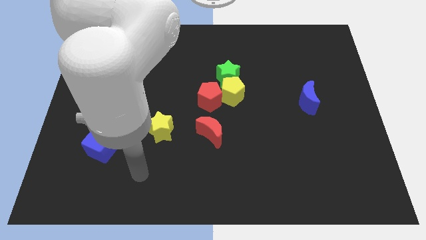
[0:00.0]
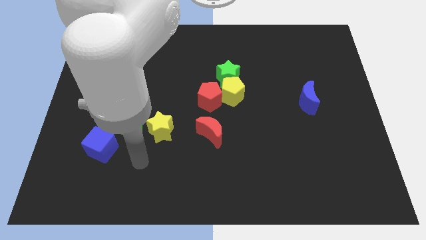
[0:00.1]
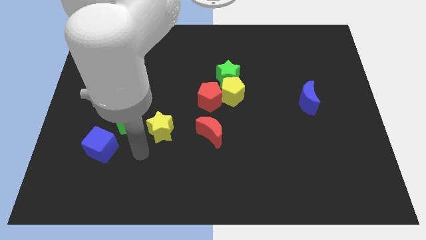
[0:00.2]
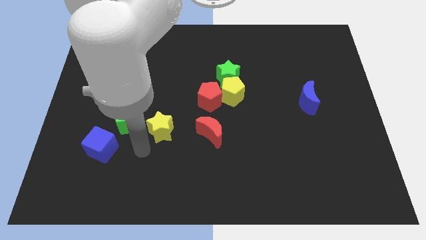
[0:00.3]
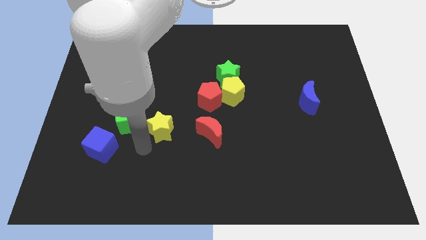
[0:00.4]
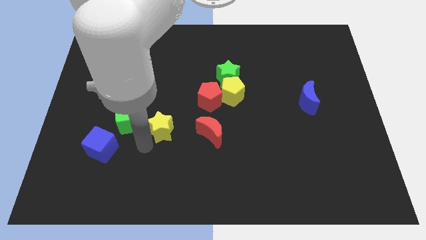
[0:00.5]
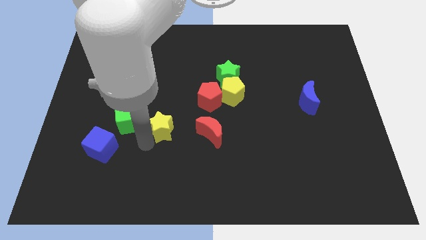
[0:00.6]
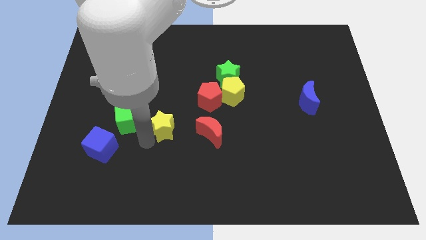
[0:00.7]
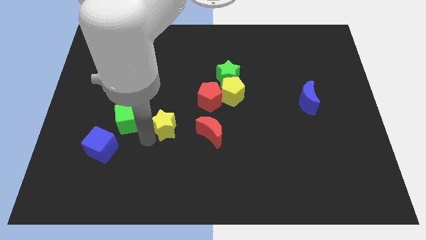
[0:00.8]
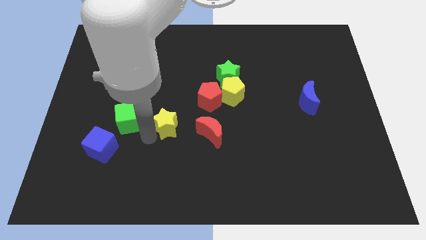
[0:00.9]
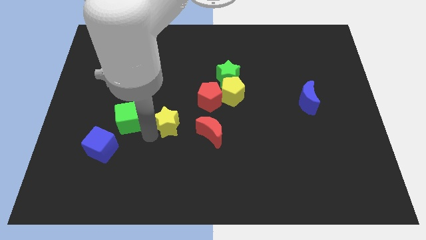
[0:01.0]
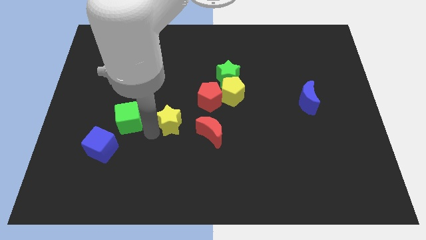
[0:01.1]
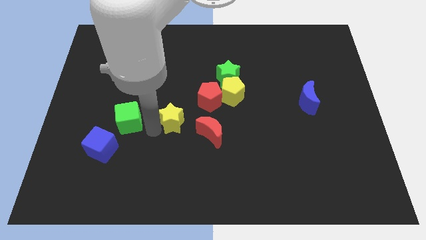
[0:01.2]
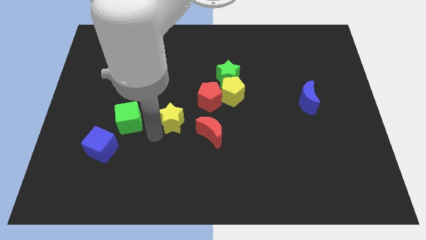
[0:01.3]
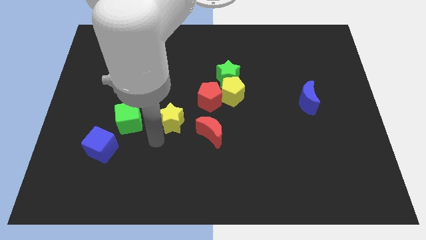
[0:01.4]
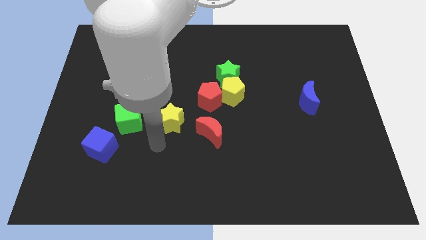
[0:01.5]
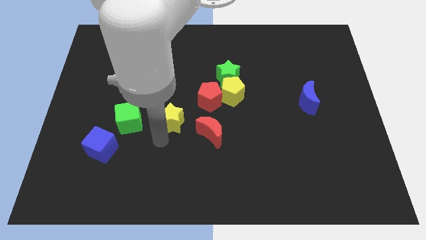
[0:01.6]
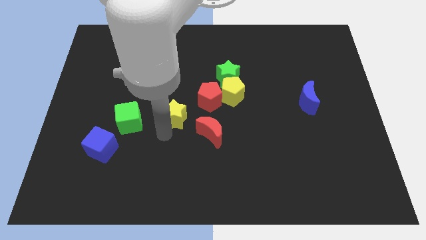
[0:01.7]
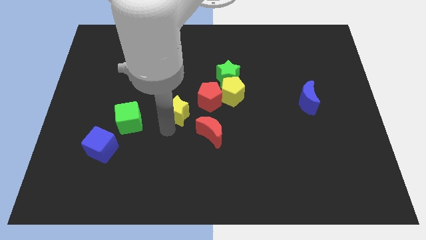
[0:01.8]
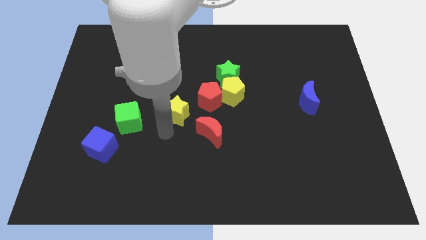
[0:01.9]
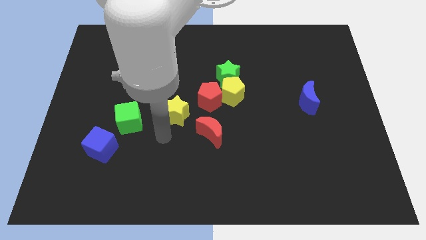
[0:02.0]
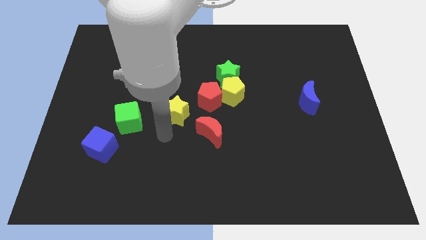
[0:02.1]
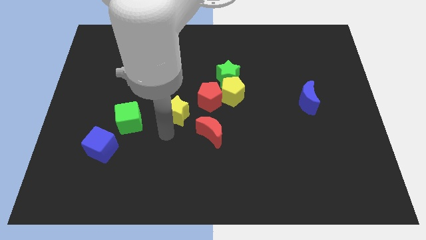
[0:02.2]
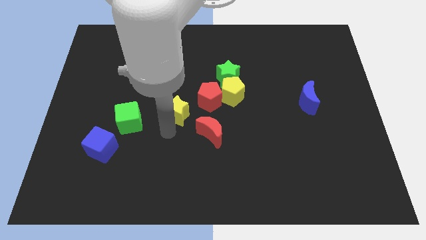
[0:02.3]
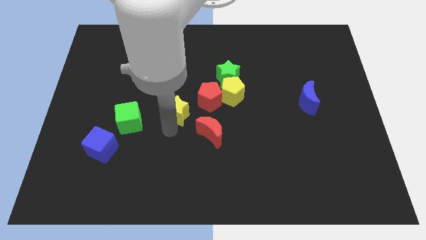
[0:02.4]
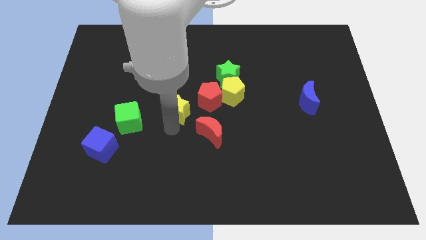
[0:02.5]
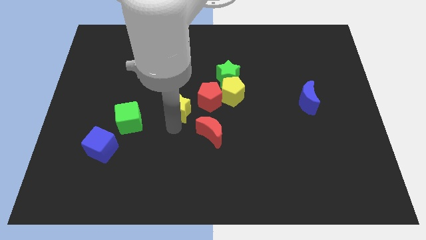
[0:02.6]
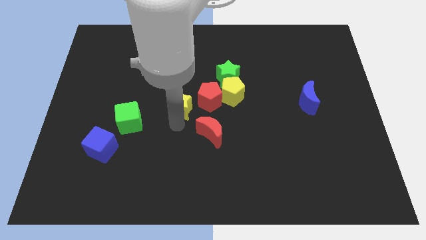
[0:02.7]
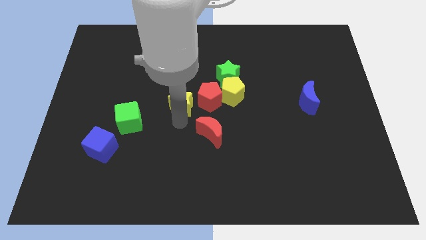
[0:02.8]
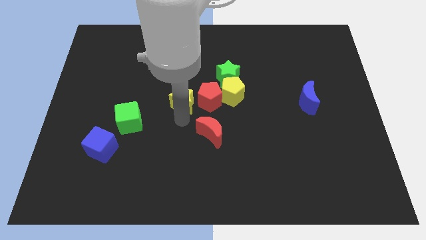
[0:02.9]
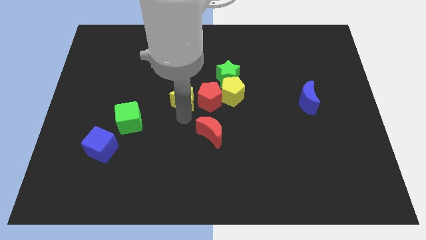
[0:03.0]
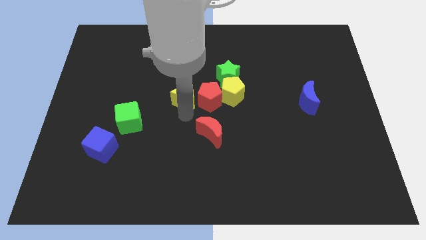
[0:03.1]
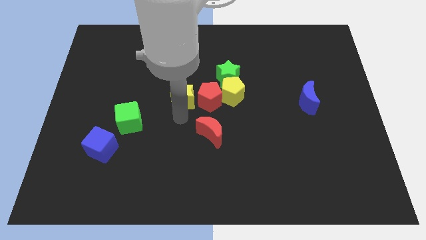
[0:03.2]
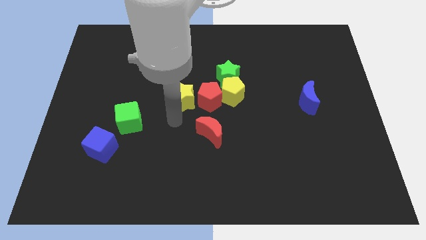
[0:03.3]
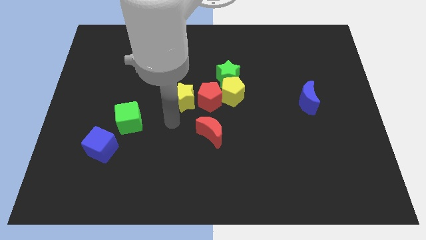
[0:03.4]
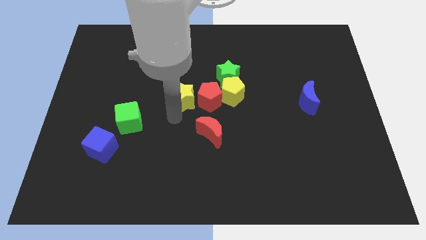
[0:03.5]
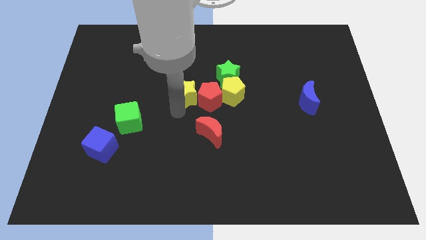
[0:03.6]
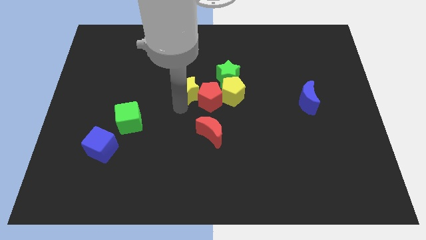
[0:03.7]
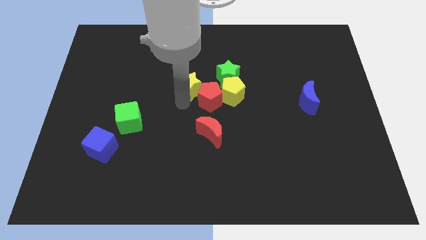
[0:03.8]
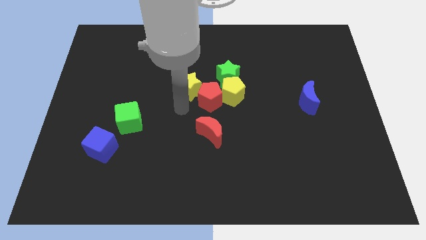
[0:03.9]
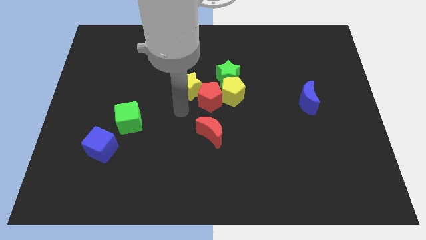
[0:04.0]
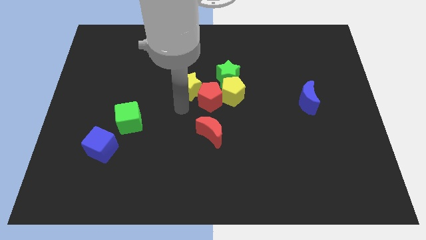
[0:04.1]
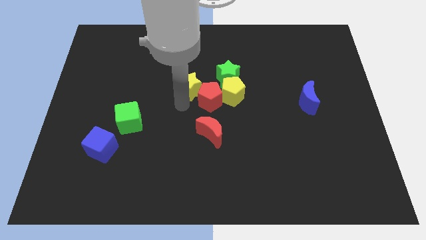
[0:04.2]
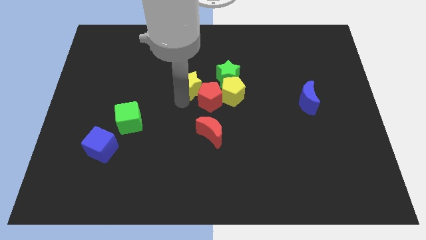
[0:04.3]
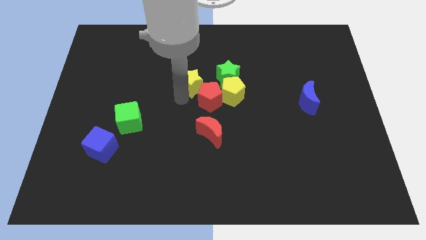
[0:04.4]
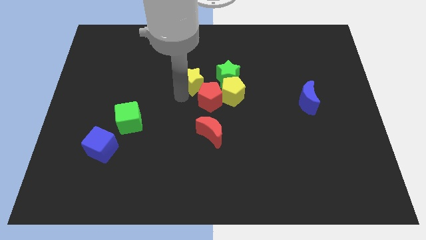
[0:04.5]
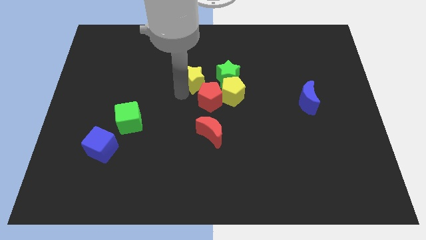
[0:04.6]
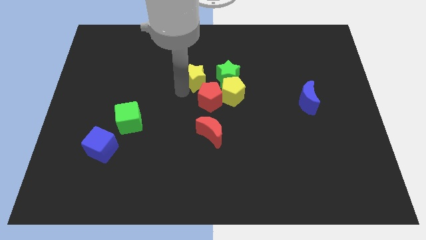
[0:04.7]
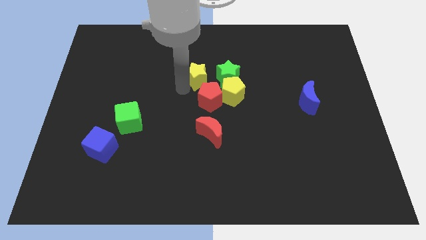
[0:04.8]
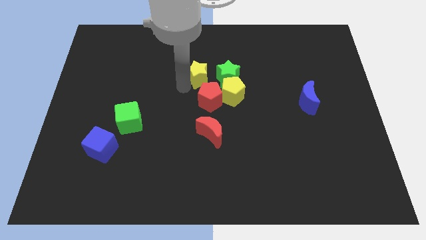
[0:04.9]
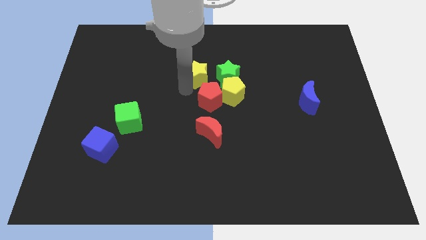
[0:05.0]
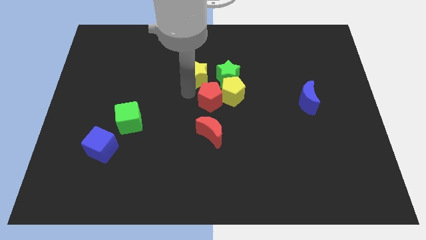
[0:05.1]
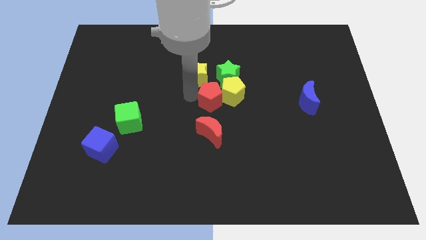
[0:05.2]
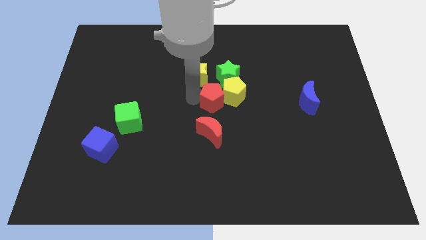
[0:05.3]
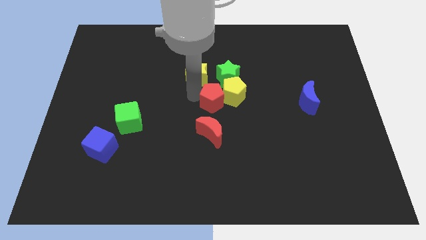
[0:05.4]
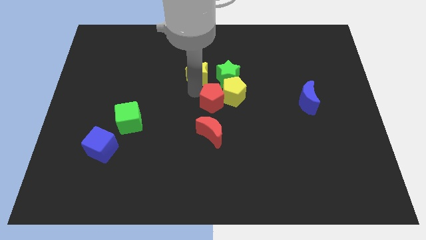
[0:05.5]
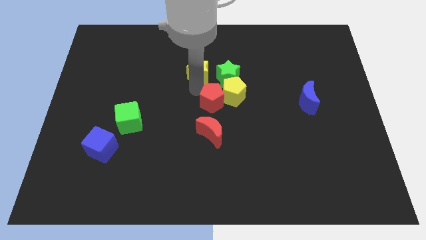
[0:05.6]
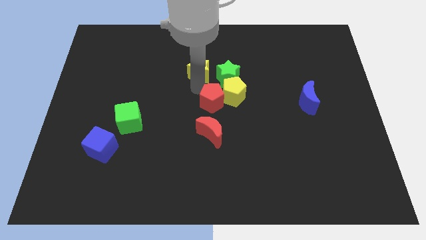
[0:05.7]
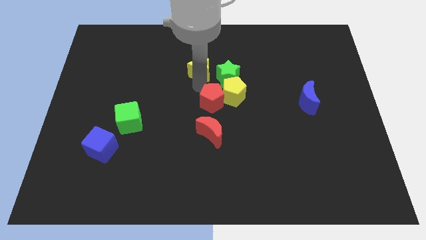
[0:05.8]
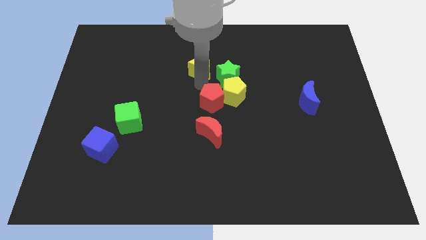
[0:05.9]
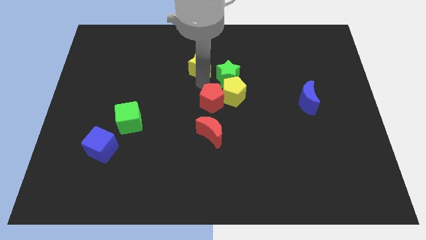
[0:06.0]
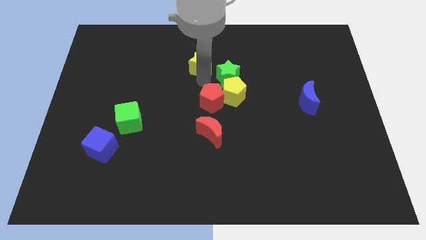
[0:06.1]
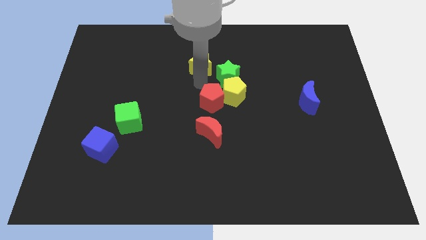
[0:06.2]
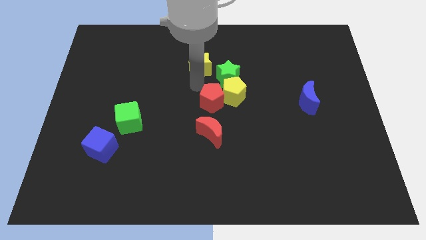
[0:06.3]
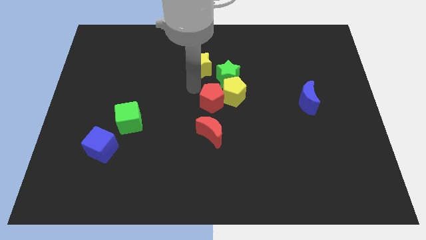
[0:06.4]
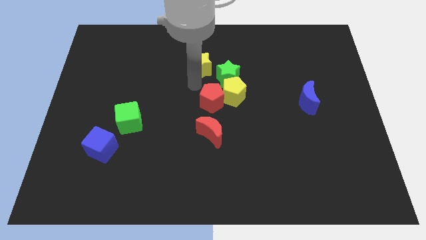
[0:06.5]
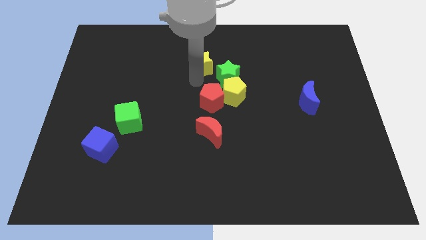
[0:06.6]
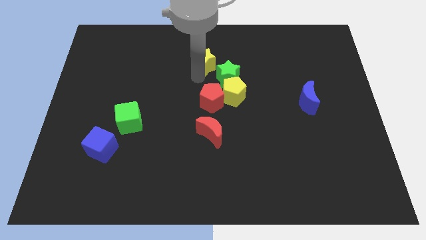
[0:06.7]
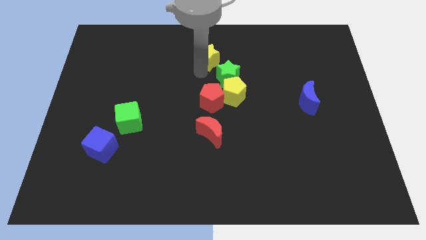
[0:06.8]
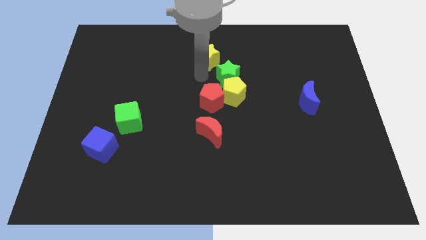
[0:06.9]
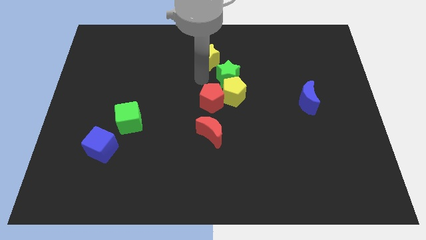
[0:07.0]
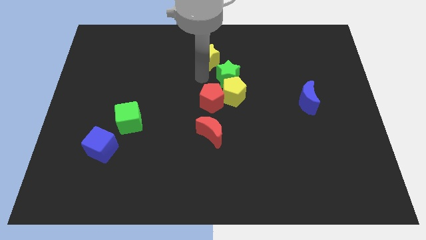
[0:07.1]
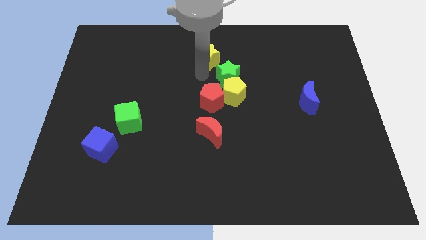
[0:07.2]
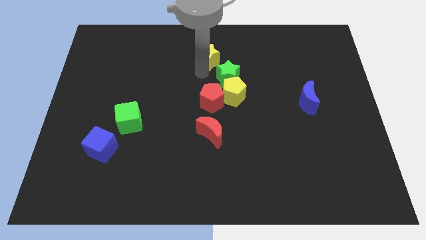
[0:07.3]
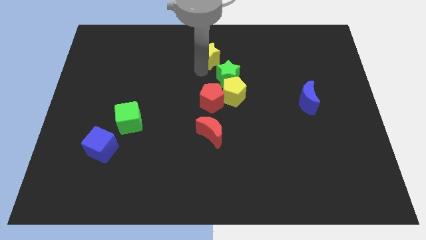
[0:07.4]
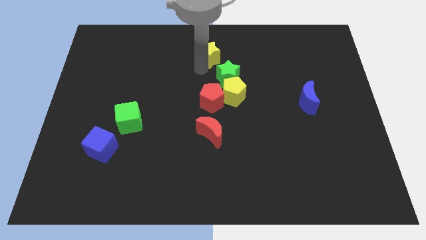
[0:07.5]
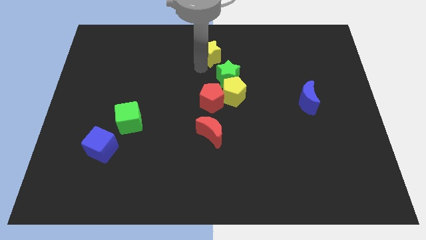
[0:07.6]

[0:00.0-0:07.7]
move the yellow star to the towards your base
